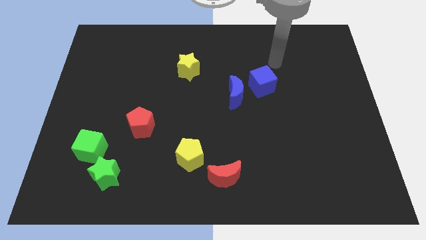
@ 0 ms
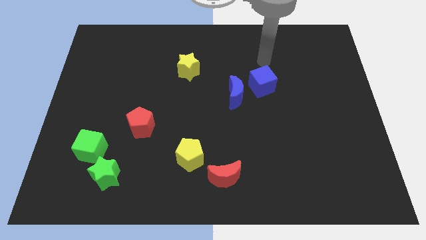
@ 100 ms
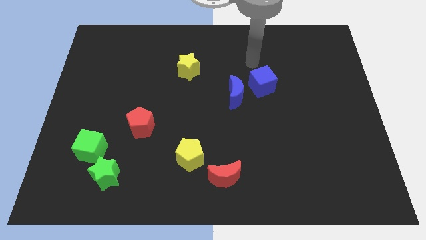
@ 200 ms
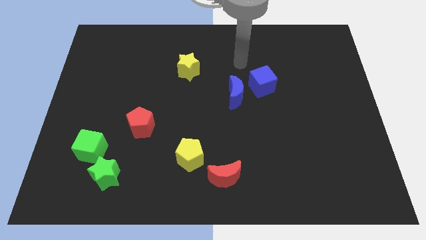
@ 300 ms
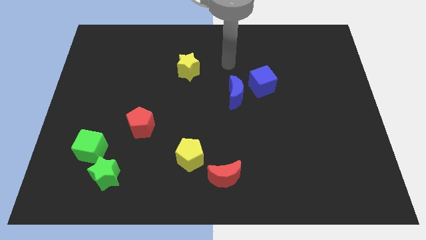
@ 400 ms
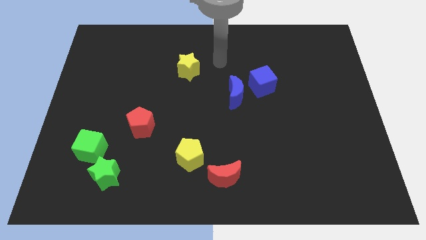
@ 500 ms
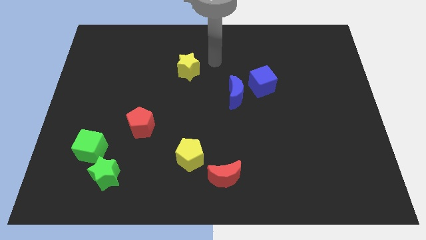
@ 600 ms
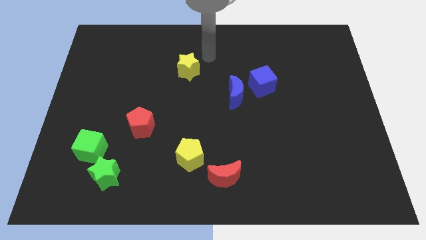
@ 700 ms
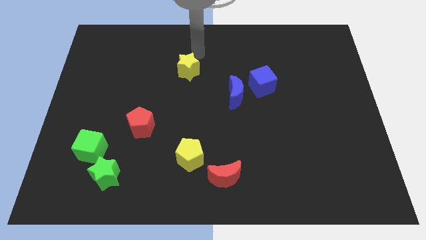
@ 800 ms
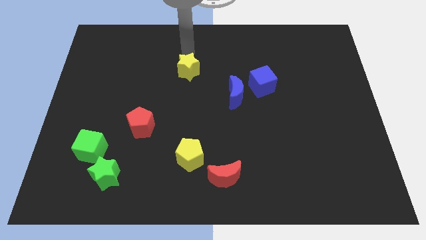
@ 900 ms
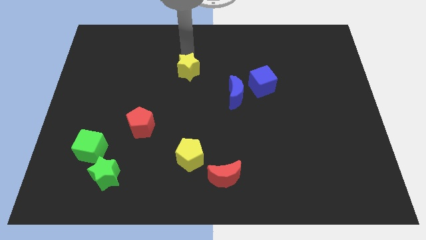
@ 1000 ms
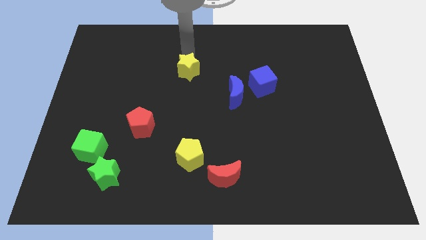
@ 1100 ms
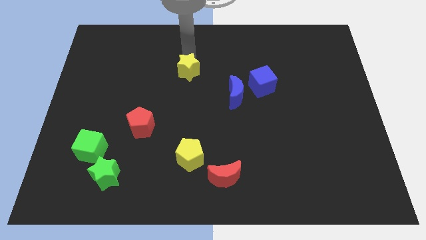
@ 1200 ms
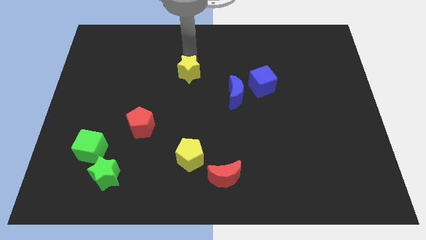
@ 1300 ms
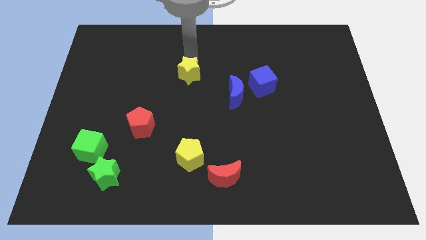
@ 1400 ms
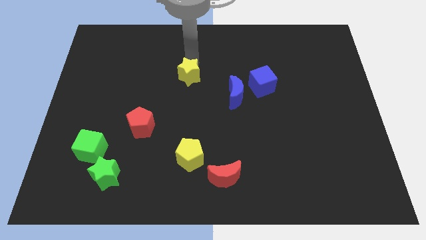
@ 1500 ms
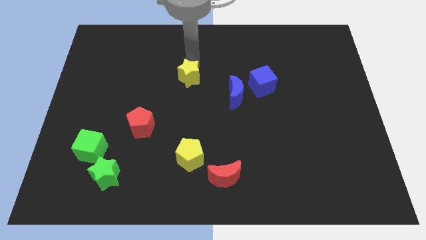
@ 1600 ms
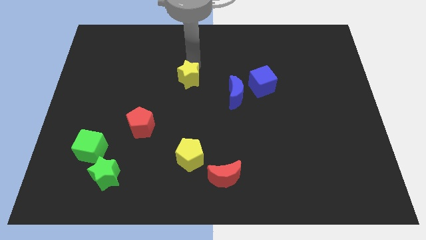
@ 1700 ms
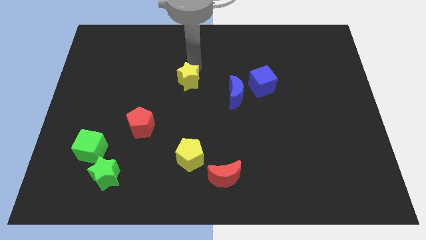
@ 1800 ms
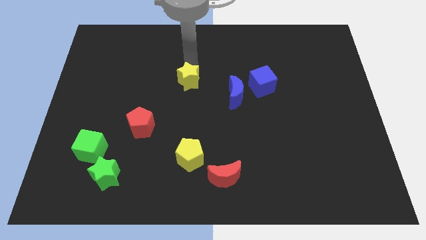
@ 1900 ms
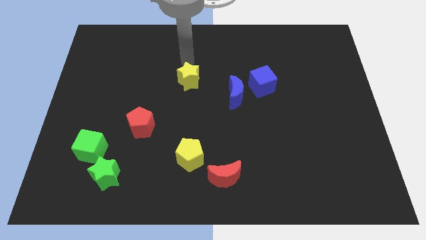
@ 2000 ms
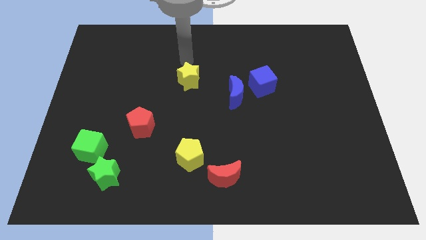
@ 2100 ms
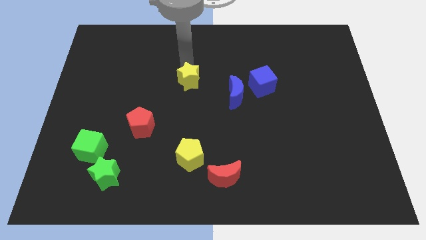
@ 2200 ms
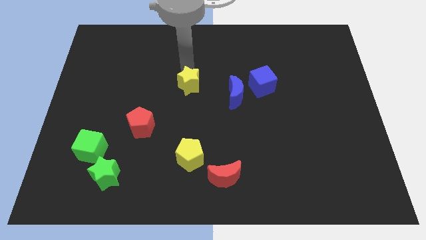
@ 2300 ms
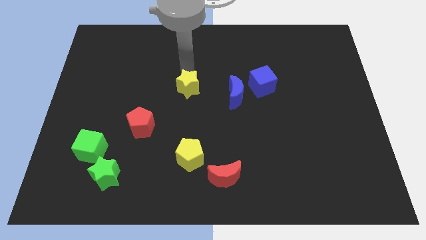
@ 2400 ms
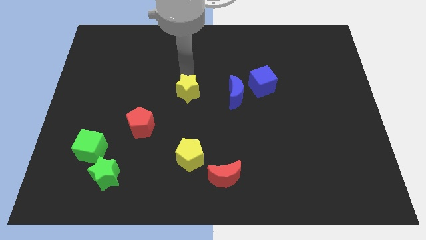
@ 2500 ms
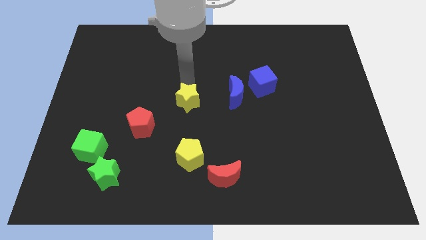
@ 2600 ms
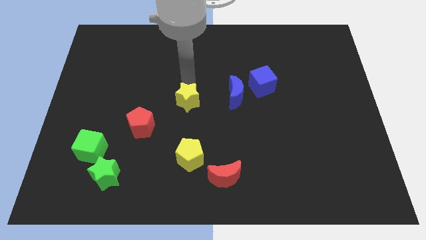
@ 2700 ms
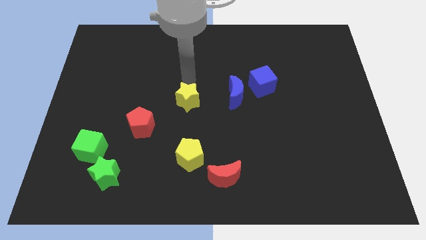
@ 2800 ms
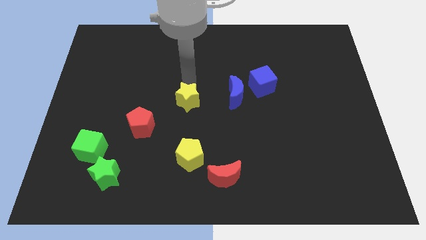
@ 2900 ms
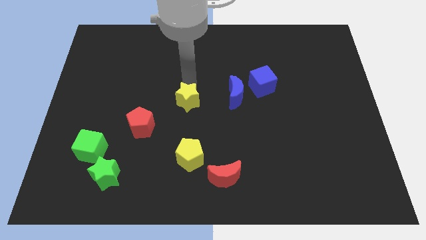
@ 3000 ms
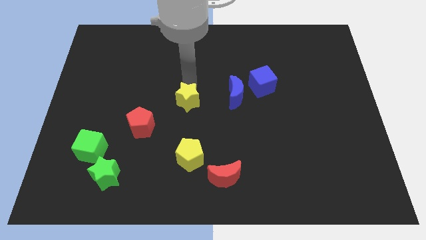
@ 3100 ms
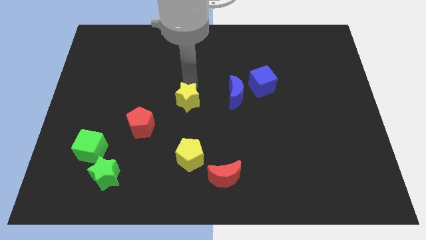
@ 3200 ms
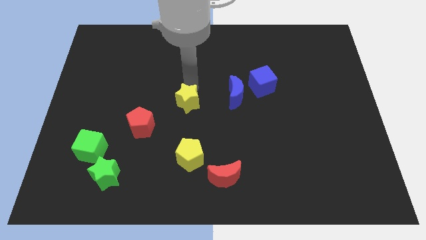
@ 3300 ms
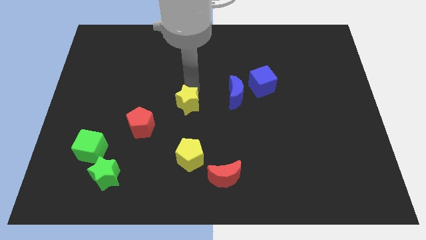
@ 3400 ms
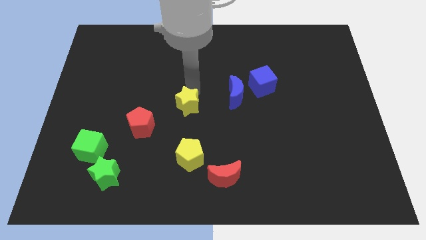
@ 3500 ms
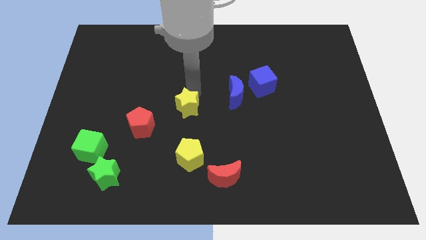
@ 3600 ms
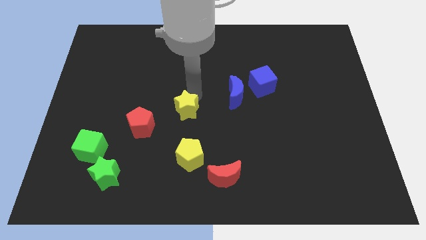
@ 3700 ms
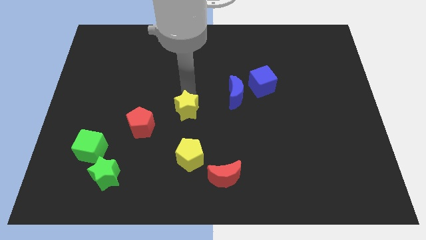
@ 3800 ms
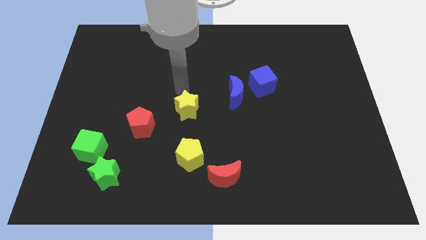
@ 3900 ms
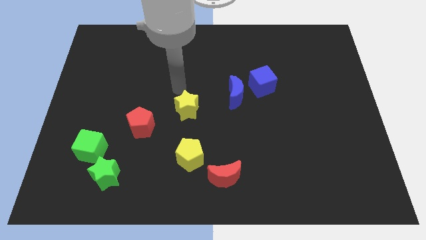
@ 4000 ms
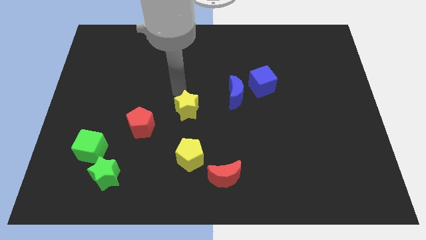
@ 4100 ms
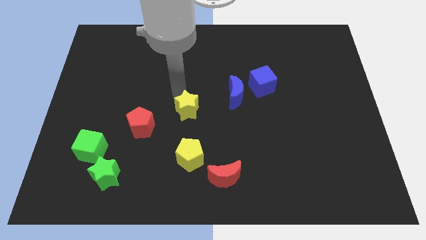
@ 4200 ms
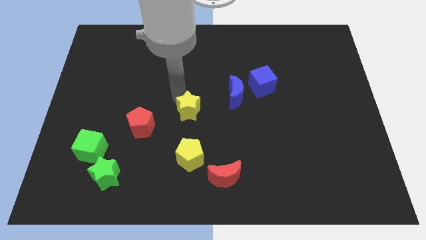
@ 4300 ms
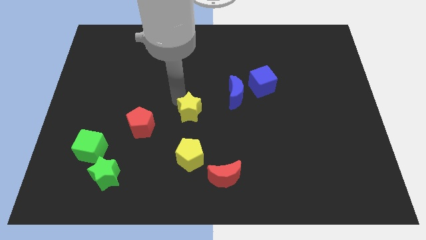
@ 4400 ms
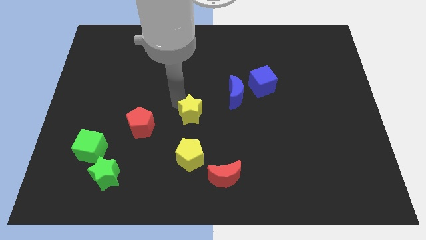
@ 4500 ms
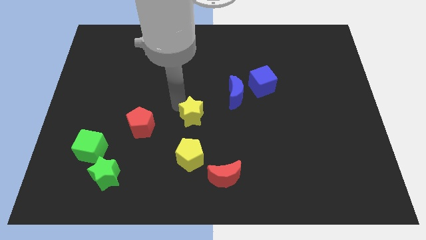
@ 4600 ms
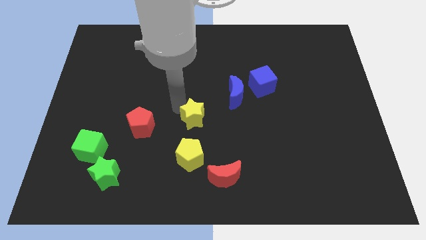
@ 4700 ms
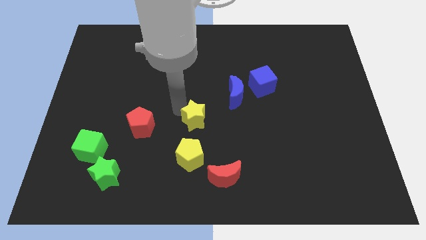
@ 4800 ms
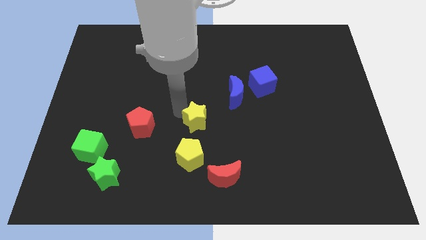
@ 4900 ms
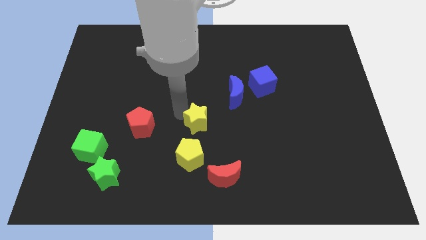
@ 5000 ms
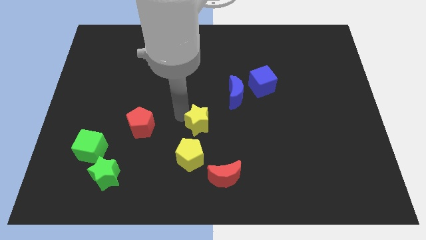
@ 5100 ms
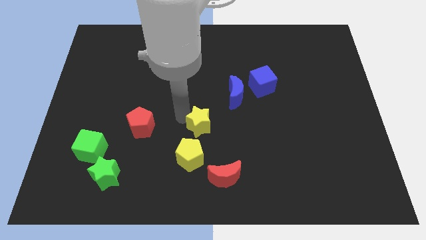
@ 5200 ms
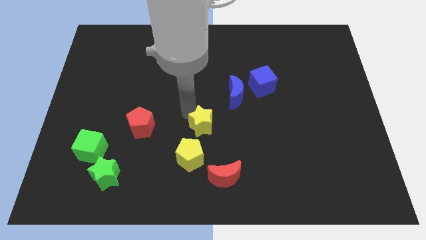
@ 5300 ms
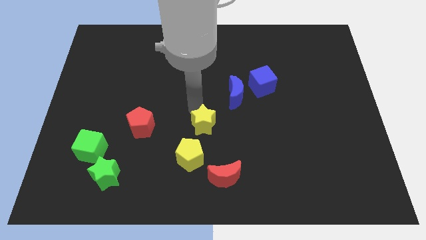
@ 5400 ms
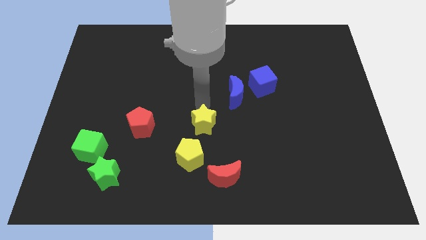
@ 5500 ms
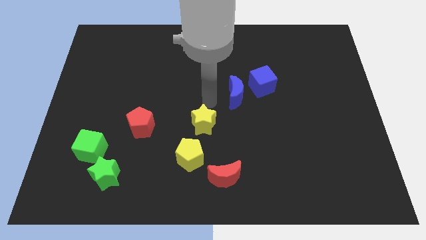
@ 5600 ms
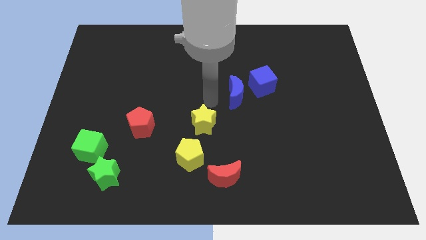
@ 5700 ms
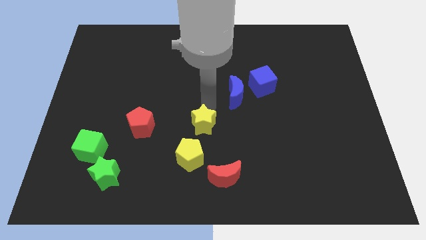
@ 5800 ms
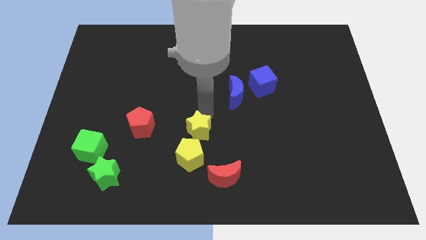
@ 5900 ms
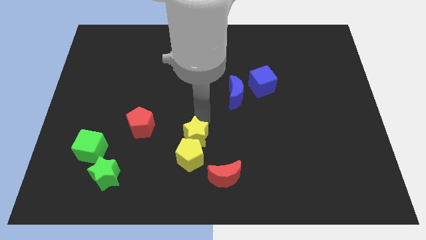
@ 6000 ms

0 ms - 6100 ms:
push the yellow star next to the yellow pentagon

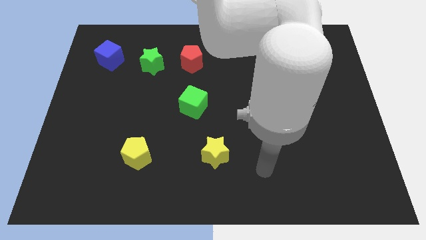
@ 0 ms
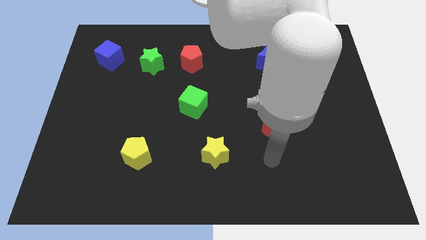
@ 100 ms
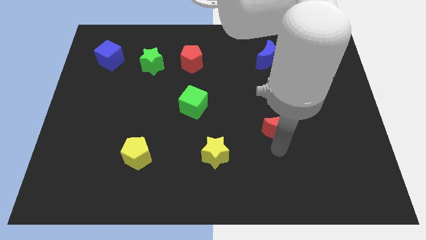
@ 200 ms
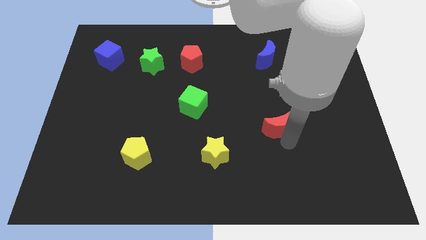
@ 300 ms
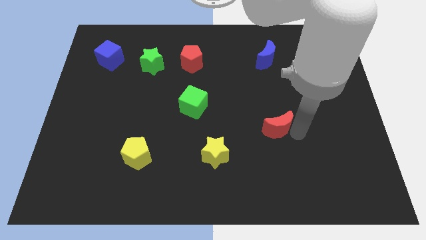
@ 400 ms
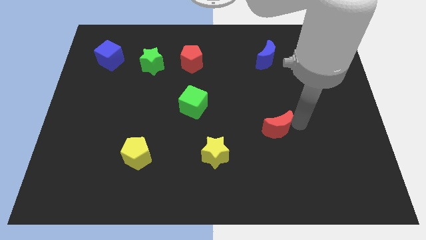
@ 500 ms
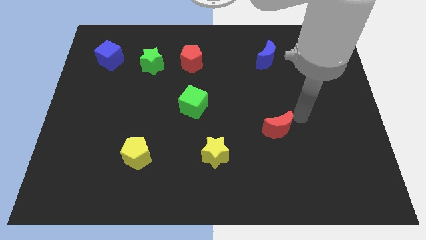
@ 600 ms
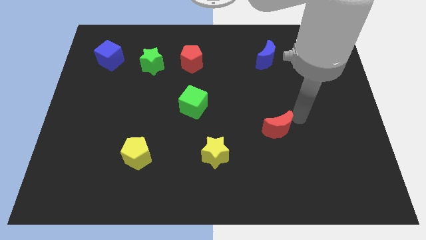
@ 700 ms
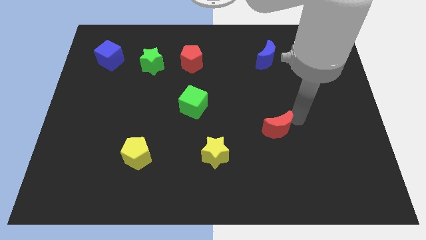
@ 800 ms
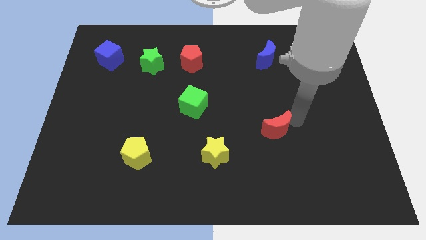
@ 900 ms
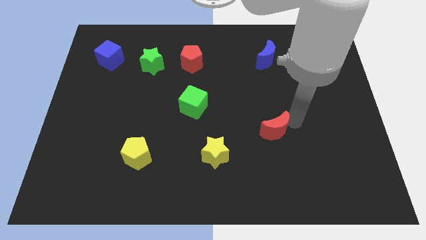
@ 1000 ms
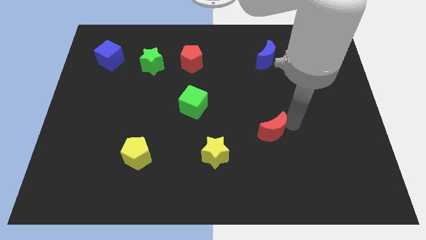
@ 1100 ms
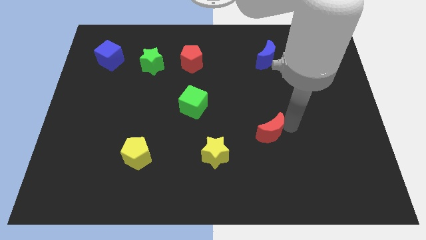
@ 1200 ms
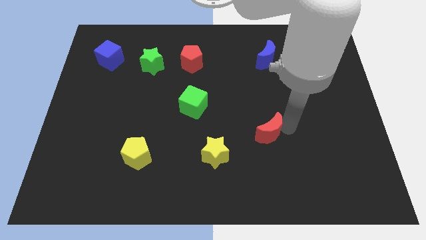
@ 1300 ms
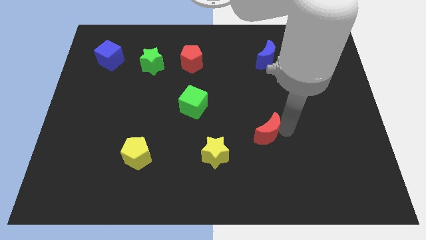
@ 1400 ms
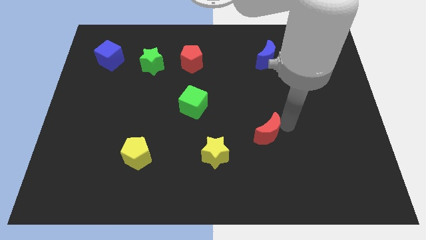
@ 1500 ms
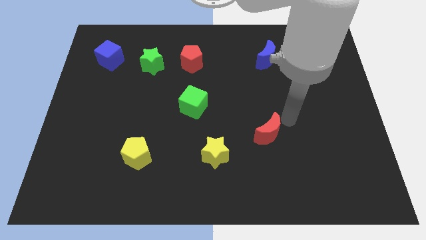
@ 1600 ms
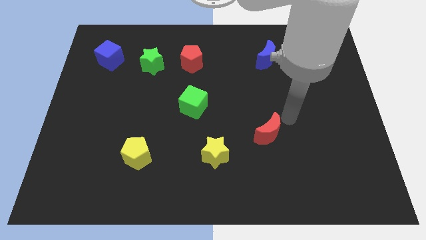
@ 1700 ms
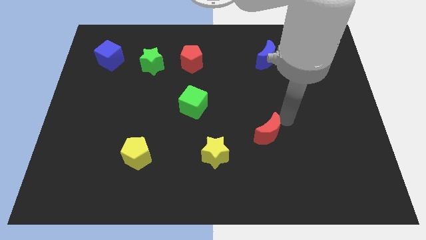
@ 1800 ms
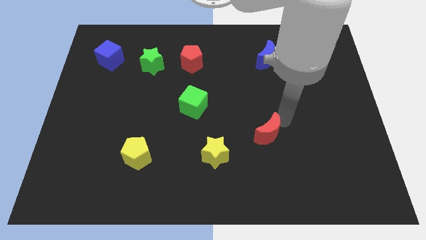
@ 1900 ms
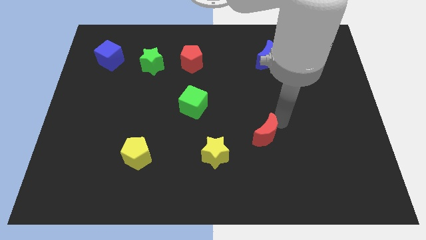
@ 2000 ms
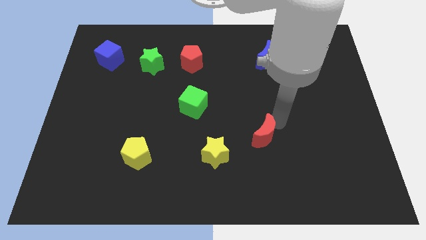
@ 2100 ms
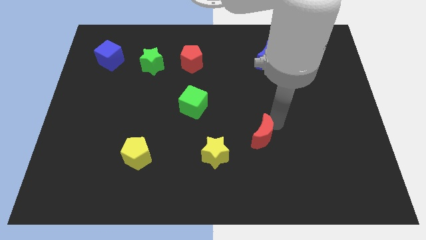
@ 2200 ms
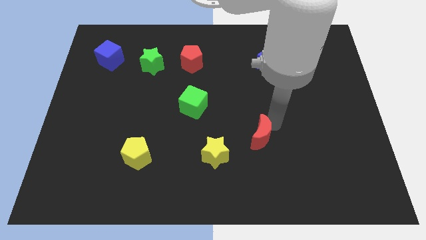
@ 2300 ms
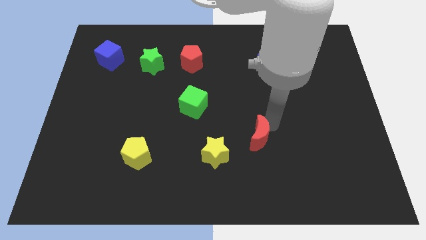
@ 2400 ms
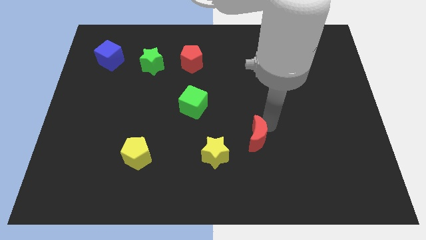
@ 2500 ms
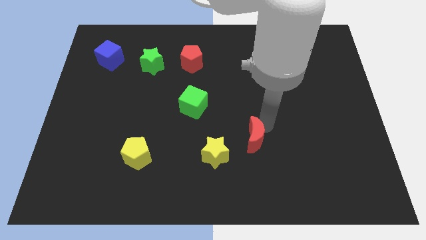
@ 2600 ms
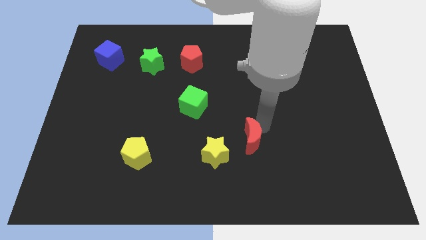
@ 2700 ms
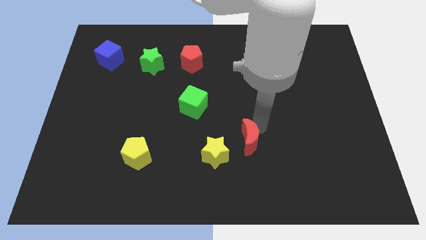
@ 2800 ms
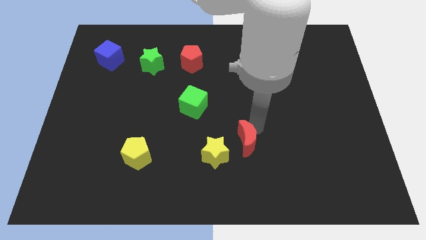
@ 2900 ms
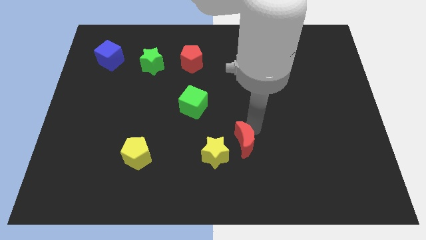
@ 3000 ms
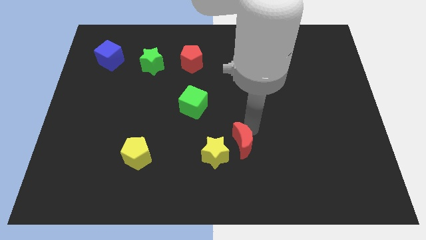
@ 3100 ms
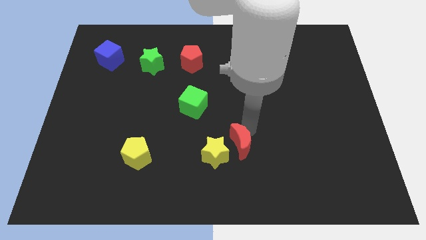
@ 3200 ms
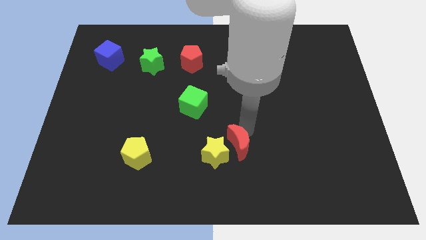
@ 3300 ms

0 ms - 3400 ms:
move the red moon to the yellow star
